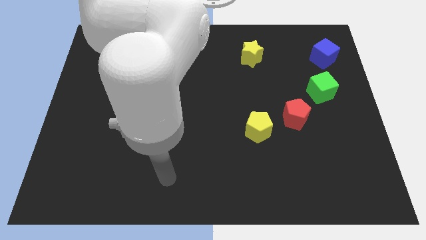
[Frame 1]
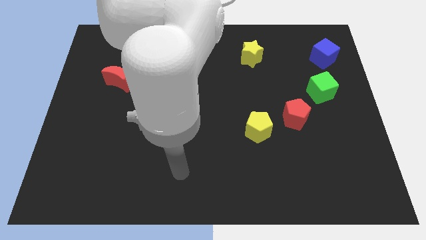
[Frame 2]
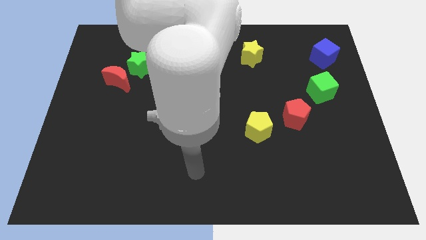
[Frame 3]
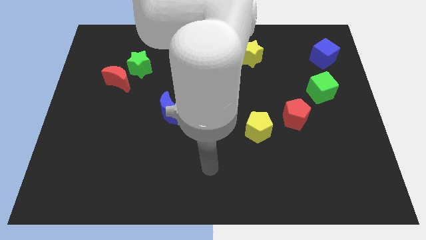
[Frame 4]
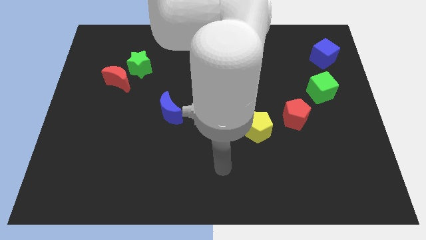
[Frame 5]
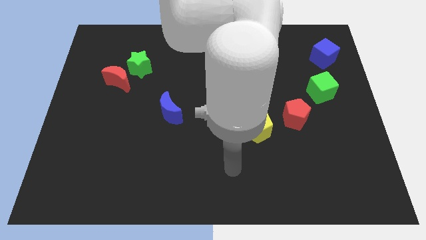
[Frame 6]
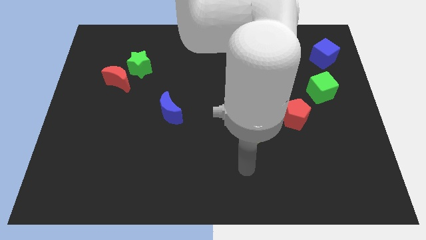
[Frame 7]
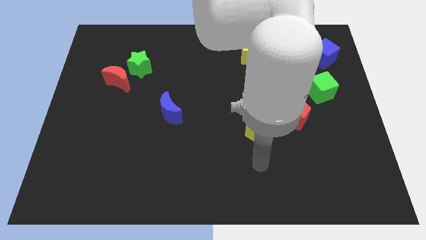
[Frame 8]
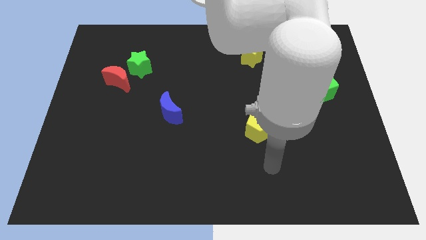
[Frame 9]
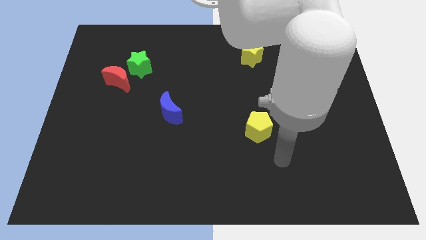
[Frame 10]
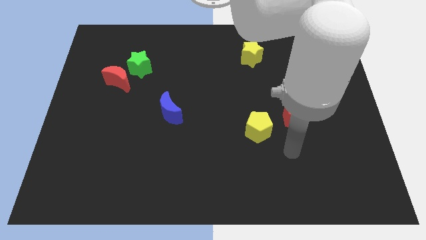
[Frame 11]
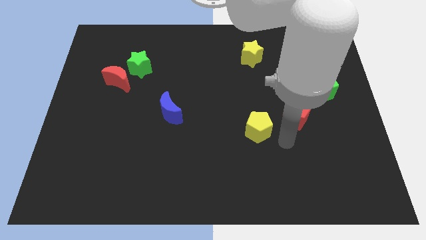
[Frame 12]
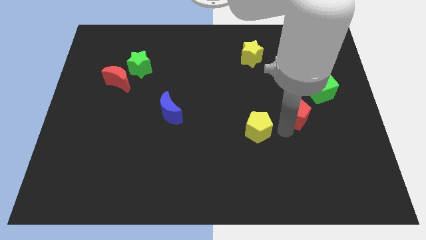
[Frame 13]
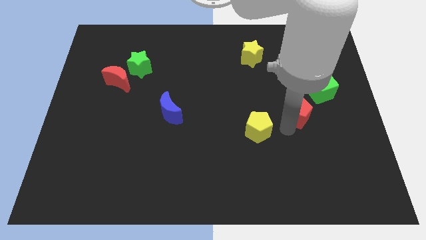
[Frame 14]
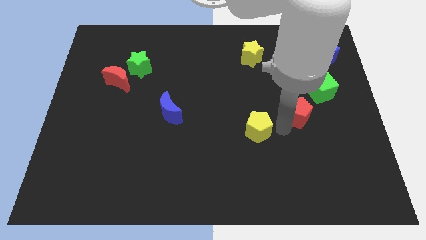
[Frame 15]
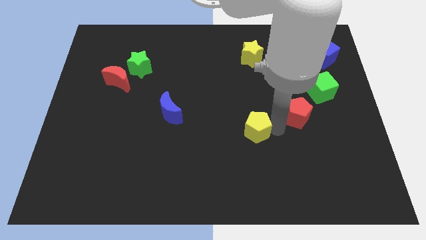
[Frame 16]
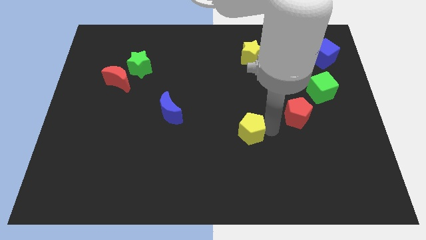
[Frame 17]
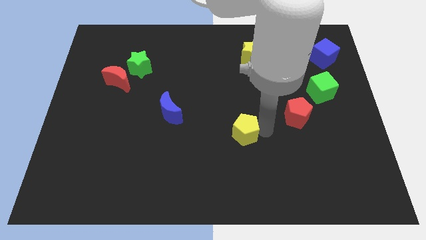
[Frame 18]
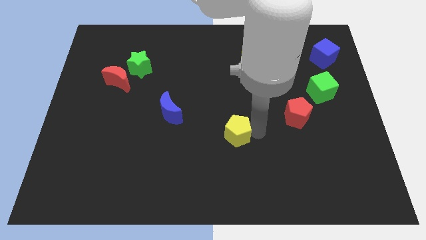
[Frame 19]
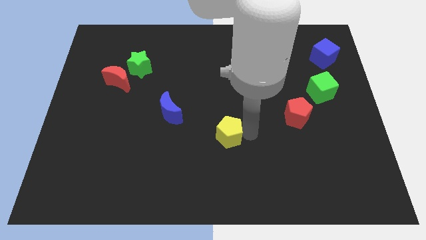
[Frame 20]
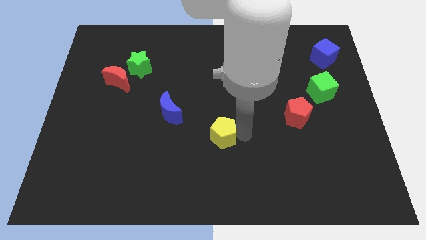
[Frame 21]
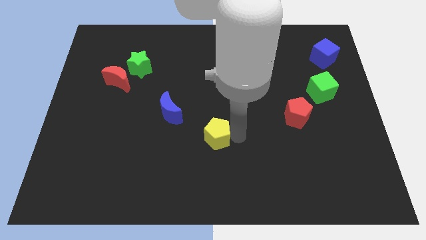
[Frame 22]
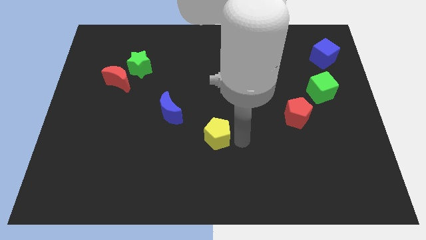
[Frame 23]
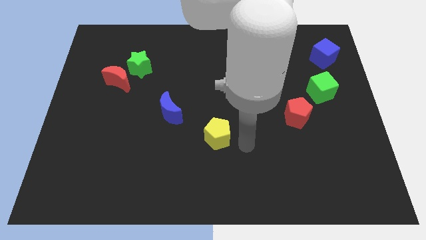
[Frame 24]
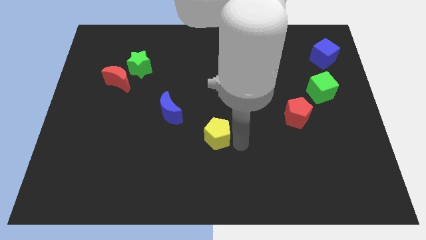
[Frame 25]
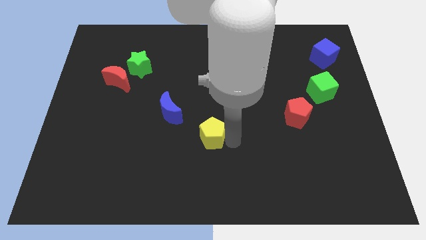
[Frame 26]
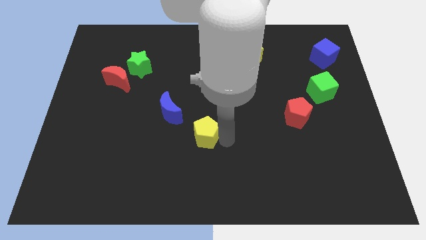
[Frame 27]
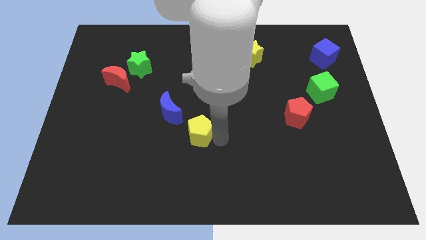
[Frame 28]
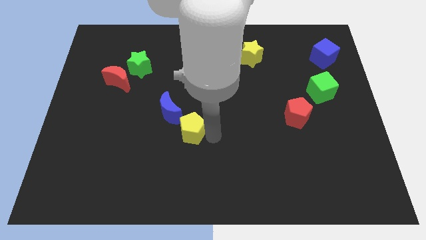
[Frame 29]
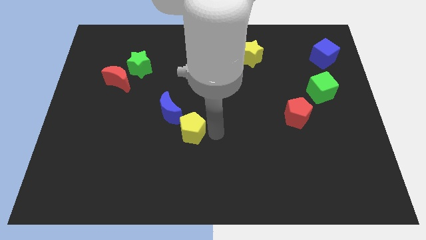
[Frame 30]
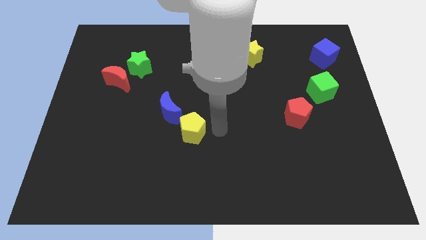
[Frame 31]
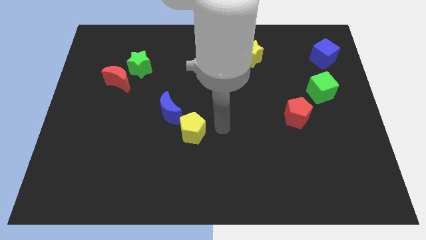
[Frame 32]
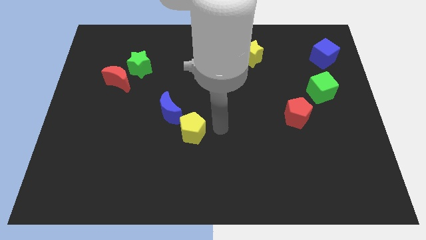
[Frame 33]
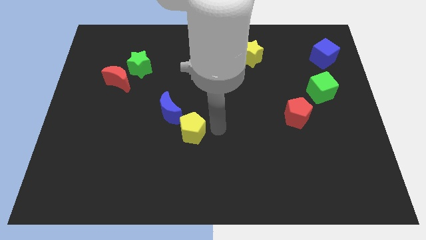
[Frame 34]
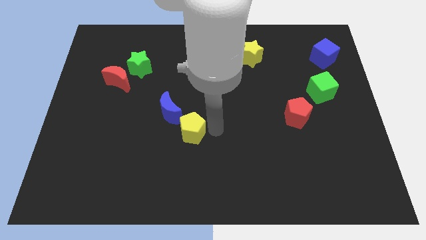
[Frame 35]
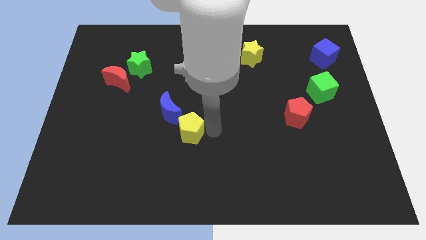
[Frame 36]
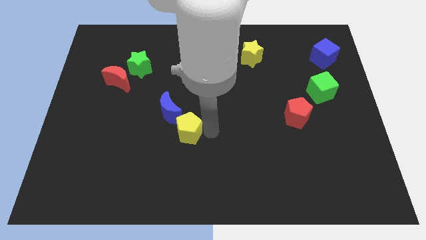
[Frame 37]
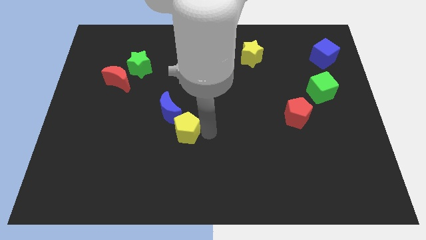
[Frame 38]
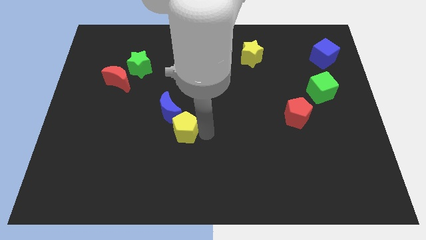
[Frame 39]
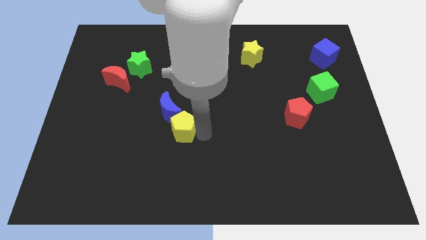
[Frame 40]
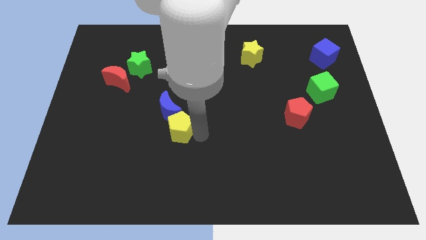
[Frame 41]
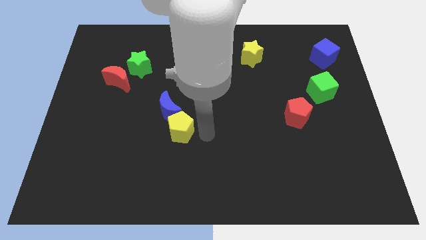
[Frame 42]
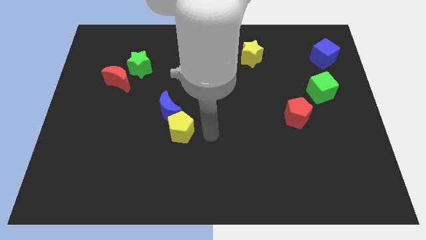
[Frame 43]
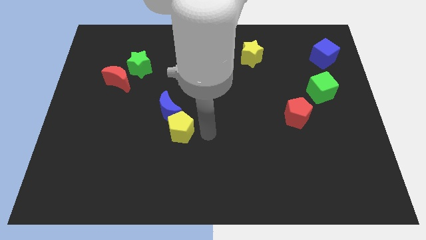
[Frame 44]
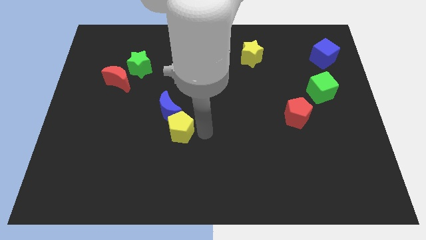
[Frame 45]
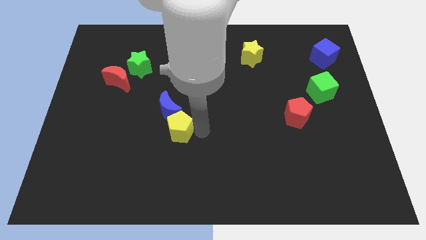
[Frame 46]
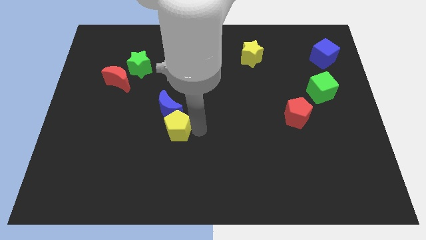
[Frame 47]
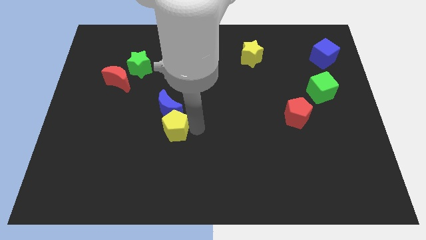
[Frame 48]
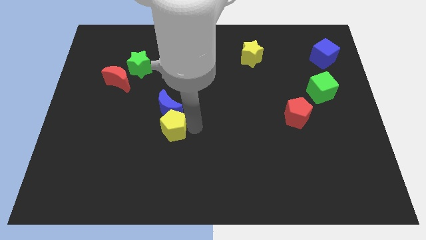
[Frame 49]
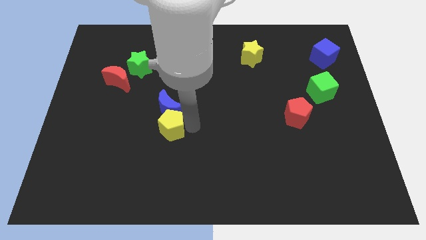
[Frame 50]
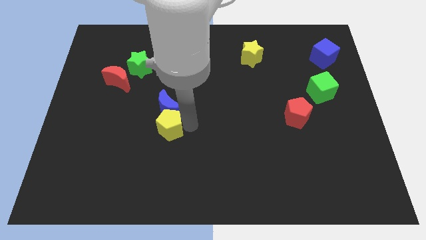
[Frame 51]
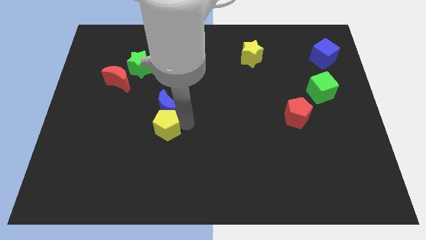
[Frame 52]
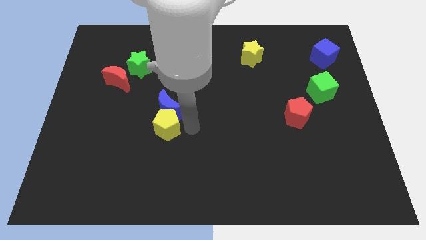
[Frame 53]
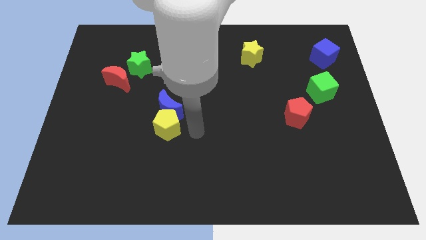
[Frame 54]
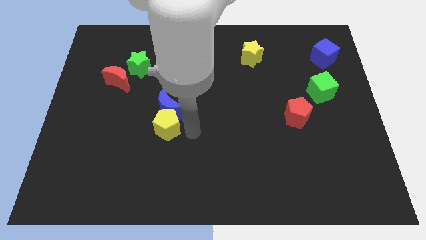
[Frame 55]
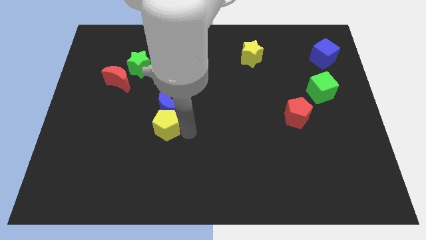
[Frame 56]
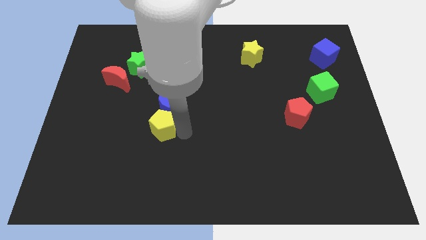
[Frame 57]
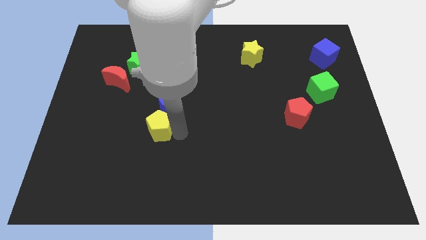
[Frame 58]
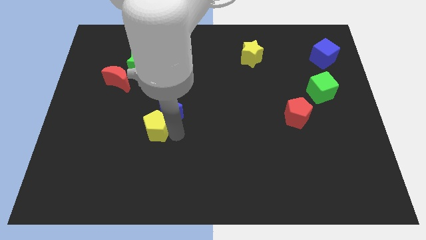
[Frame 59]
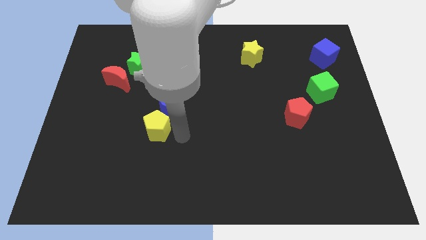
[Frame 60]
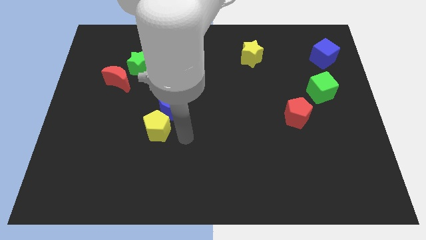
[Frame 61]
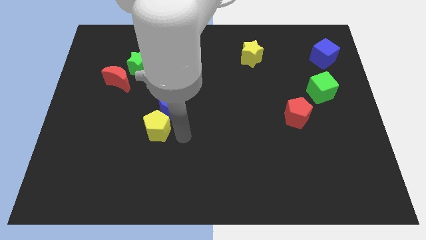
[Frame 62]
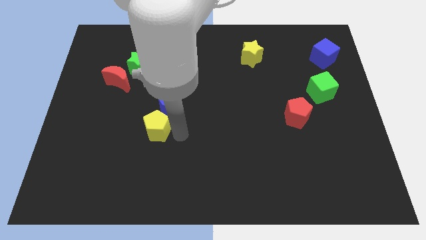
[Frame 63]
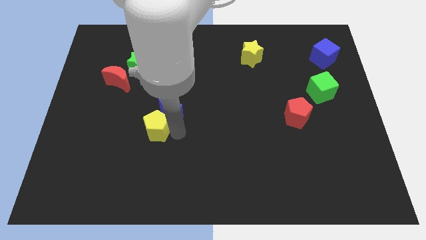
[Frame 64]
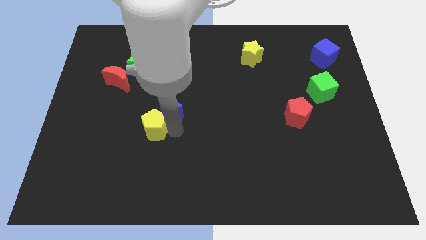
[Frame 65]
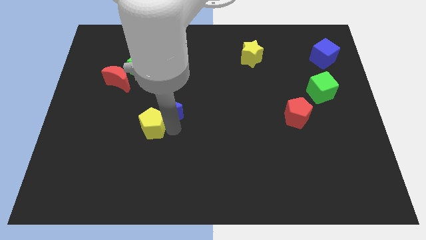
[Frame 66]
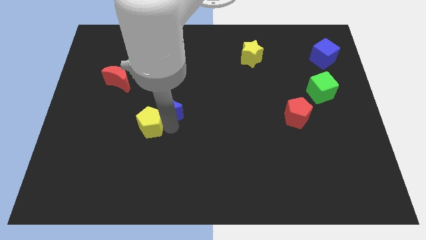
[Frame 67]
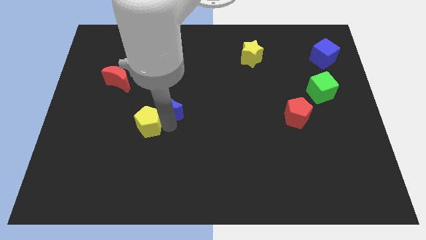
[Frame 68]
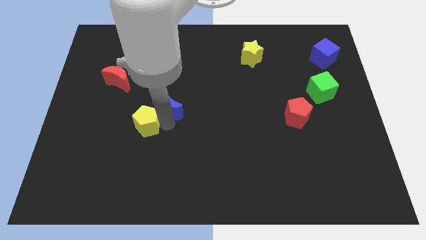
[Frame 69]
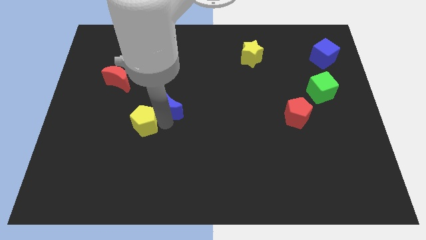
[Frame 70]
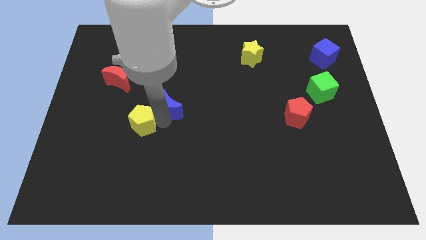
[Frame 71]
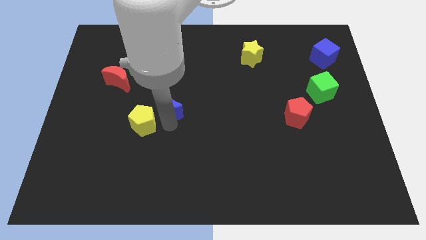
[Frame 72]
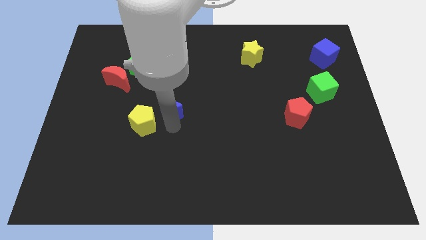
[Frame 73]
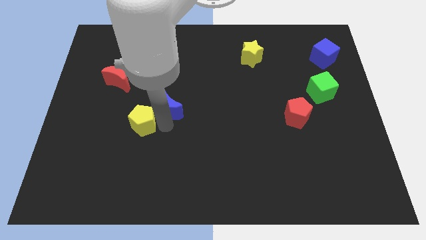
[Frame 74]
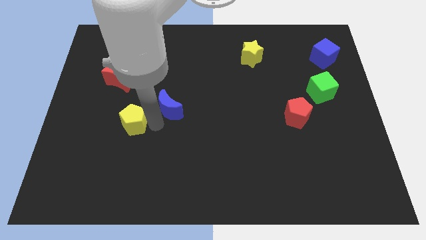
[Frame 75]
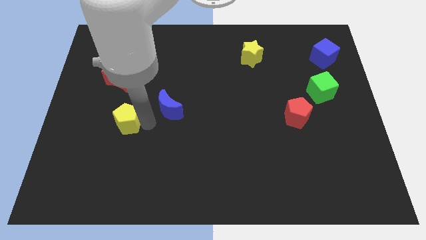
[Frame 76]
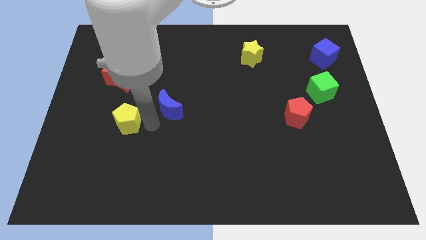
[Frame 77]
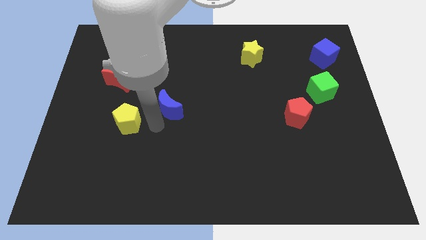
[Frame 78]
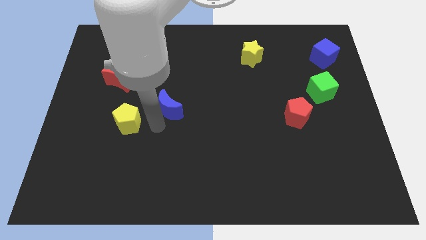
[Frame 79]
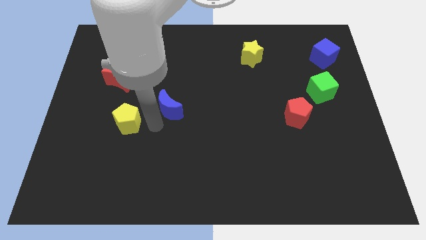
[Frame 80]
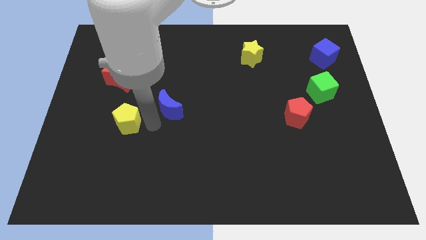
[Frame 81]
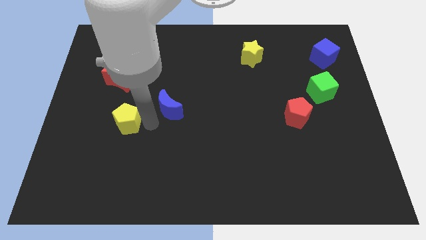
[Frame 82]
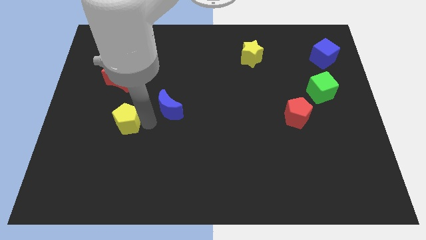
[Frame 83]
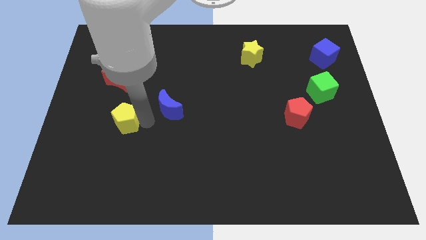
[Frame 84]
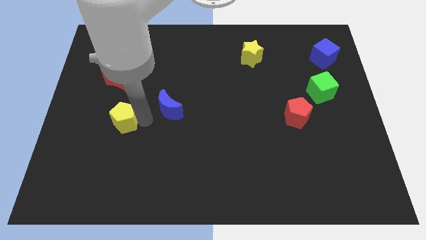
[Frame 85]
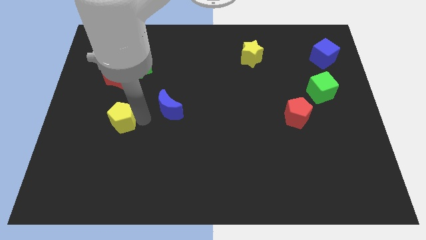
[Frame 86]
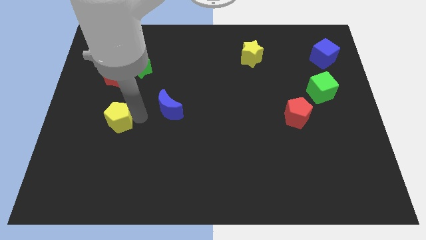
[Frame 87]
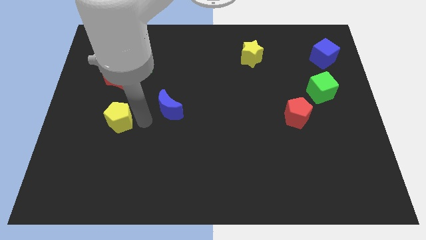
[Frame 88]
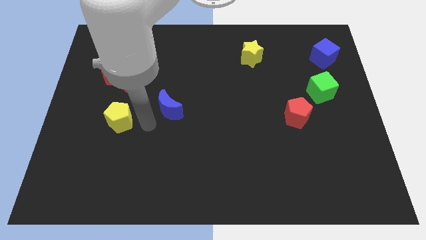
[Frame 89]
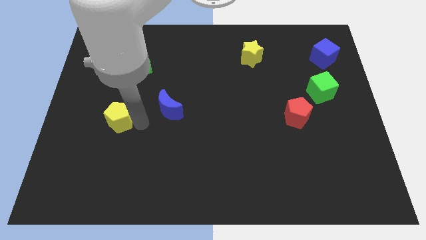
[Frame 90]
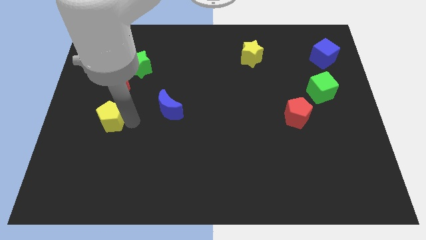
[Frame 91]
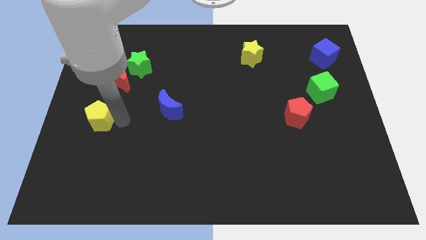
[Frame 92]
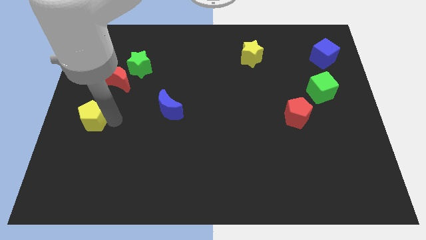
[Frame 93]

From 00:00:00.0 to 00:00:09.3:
push the yellow pentagon to the left side
